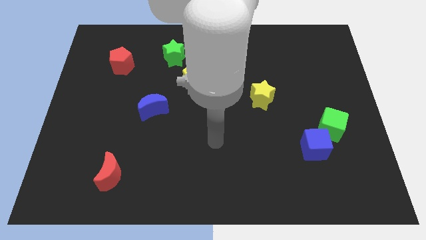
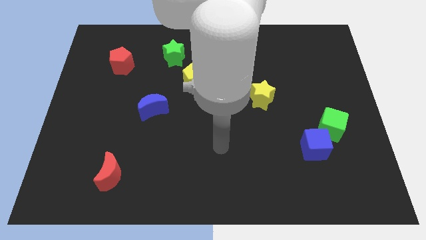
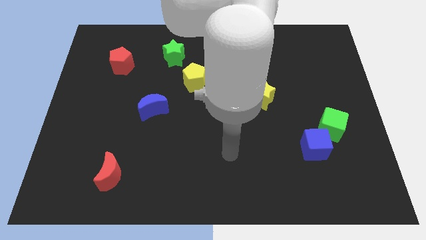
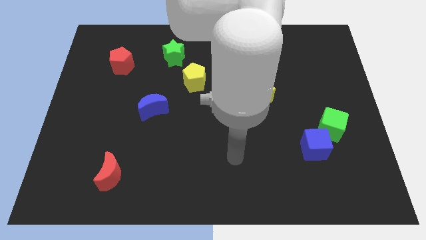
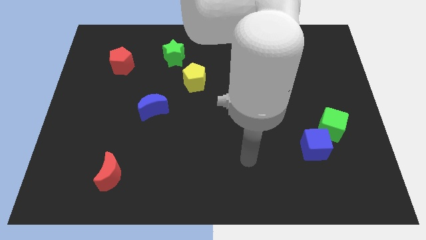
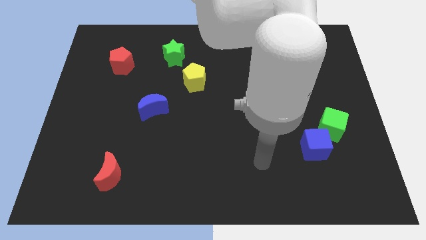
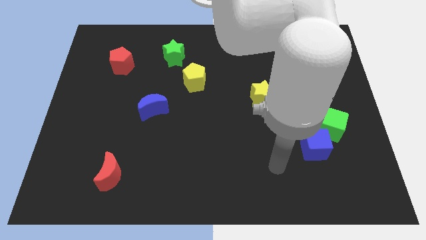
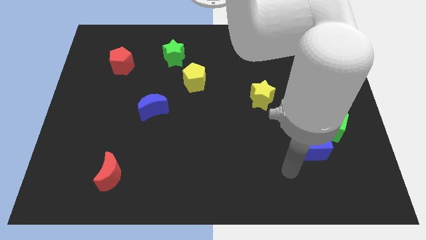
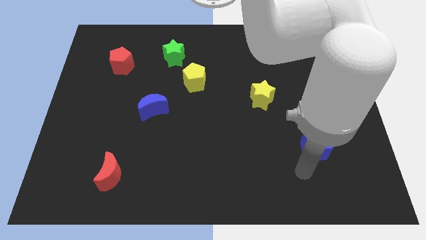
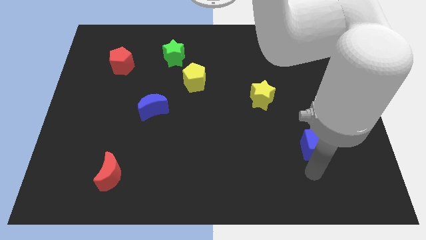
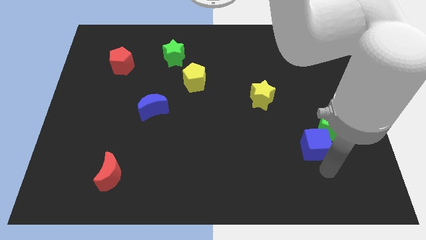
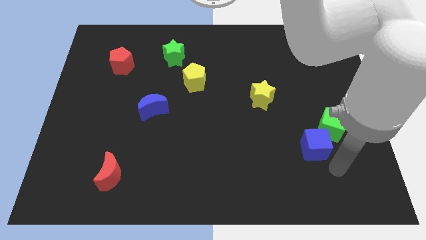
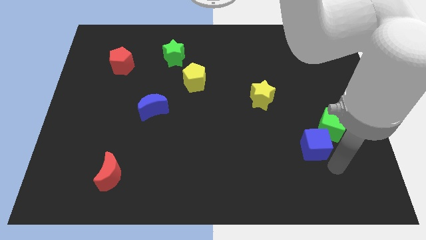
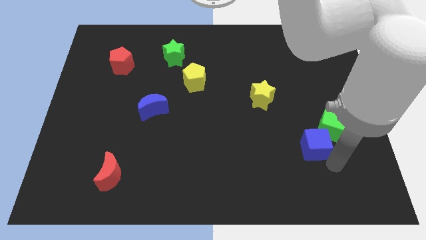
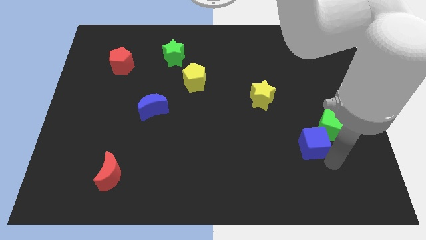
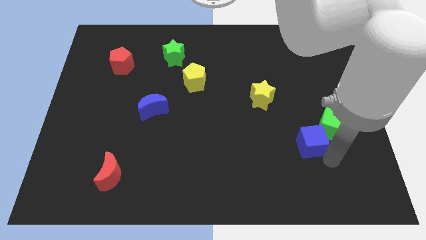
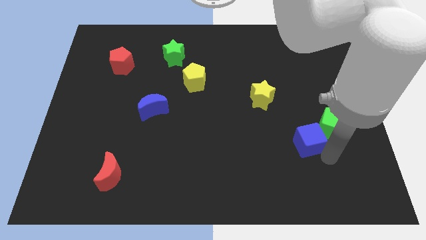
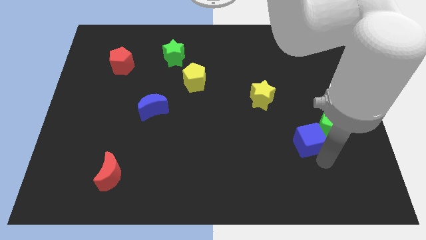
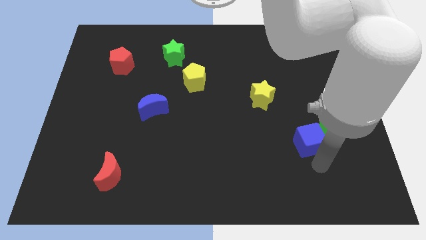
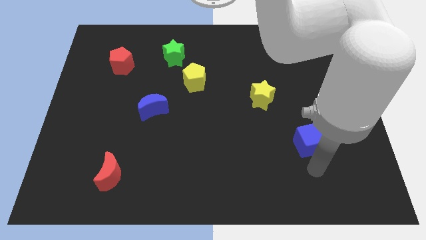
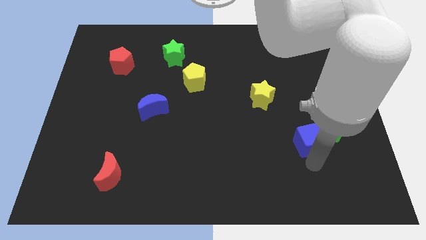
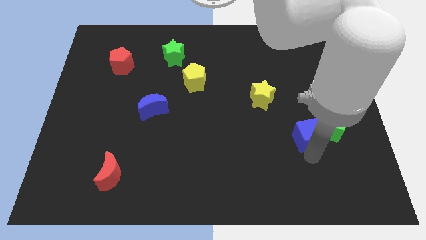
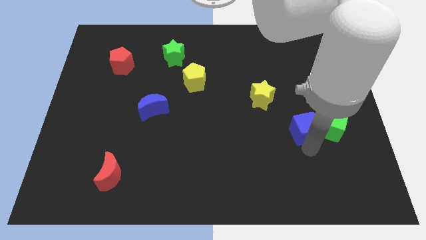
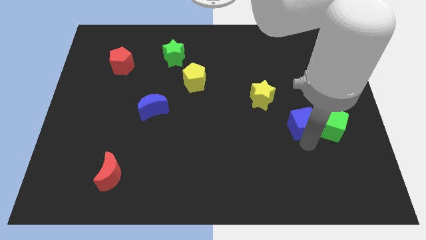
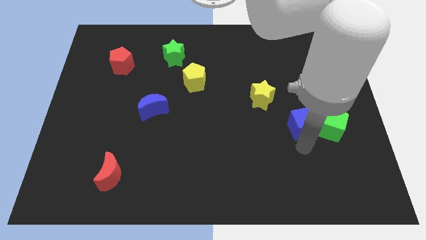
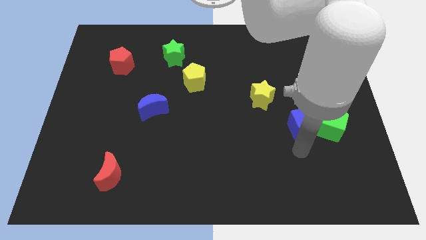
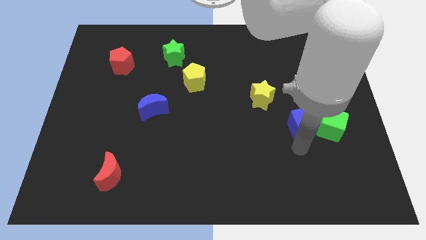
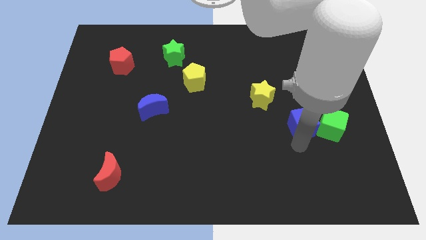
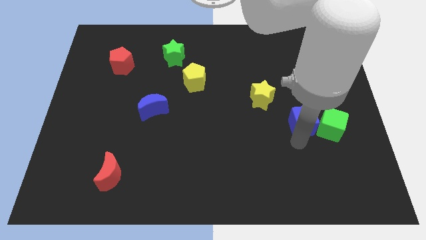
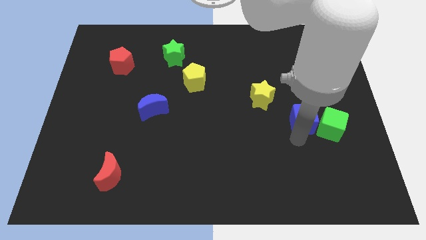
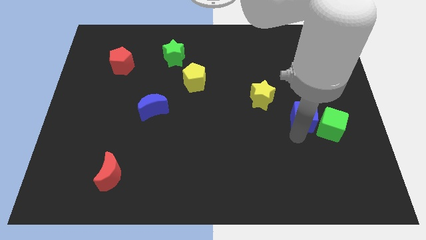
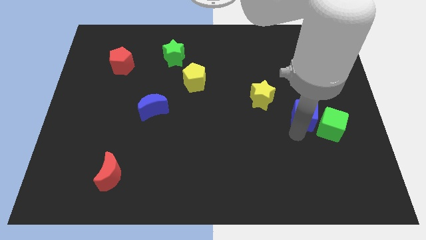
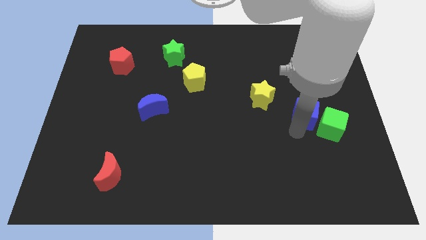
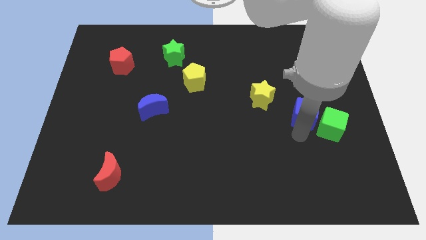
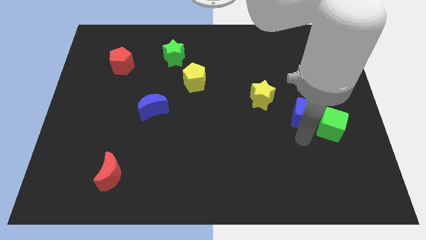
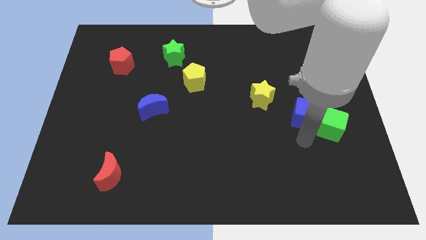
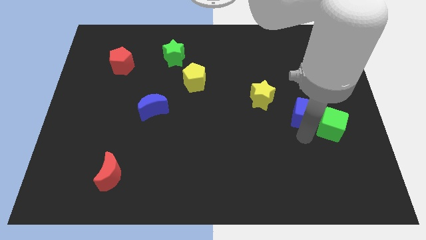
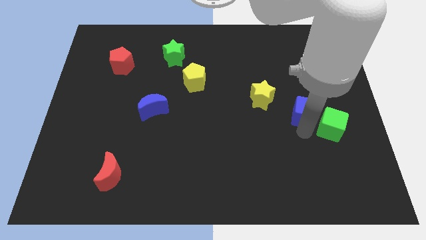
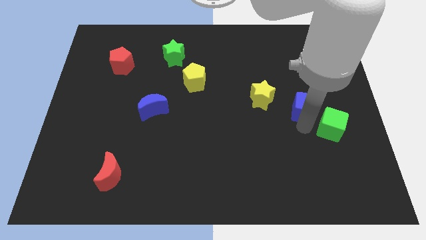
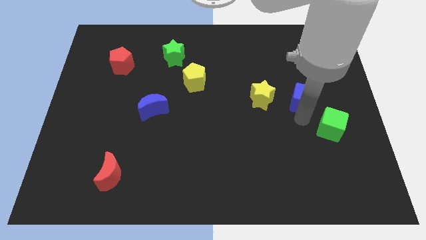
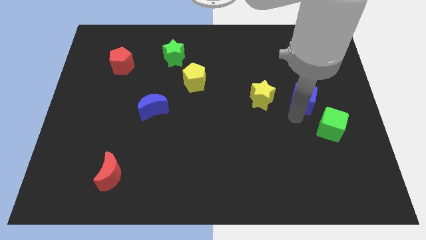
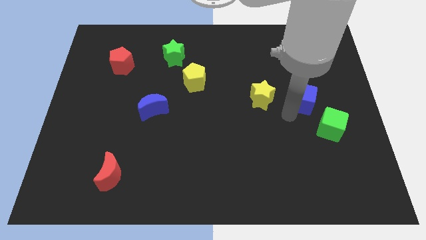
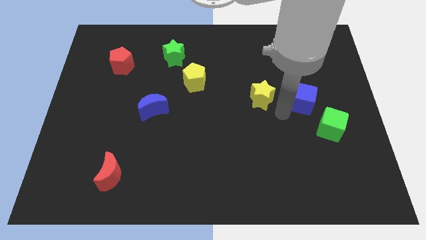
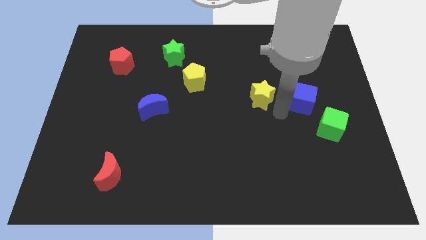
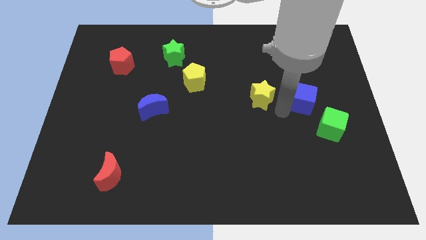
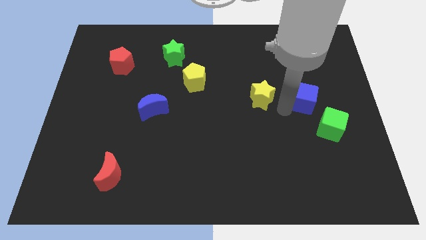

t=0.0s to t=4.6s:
move the blue cube to the top of the green cube

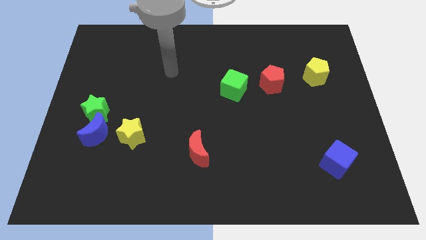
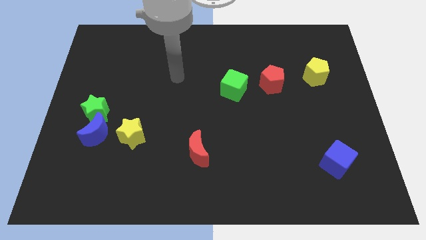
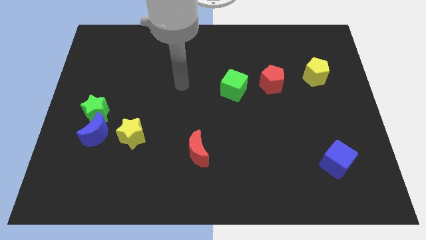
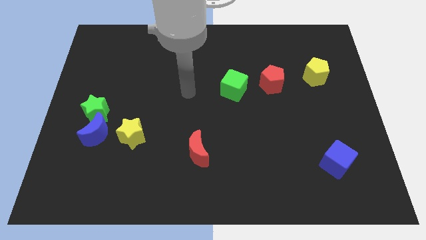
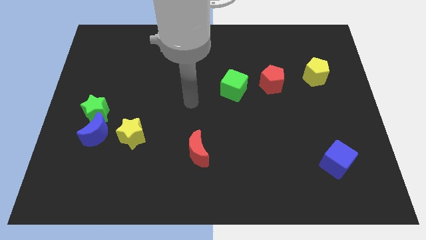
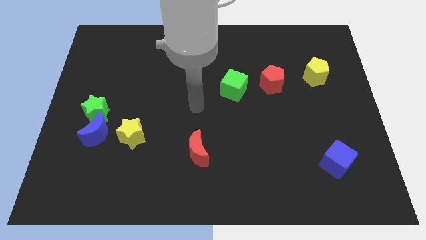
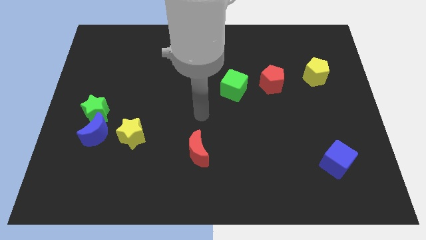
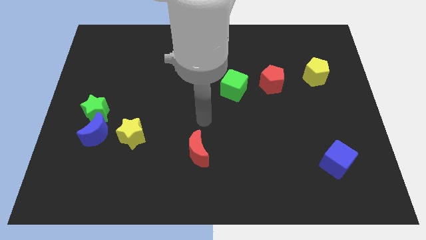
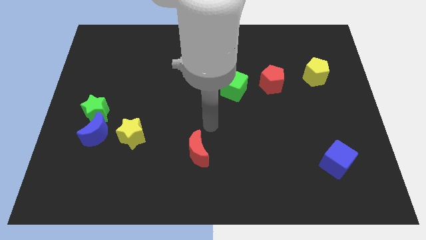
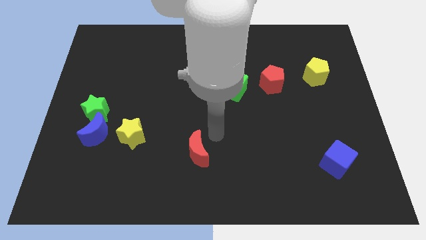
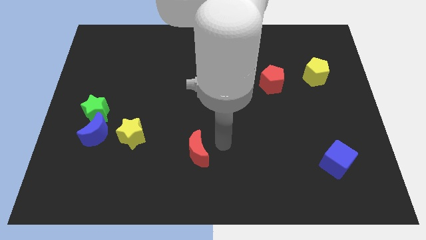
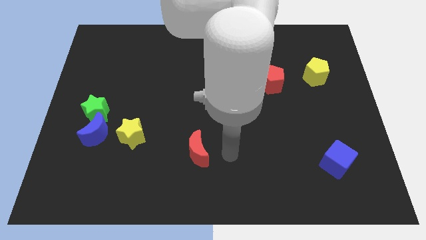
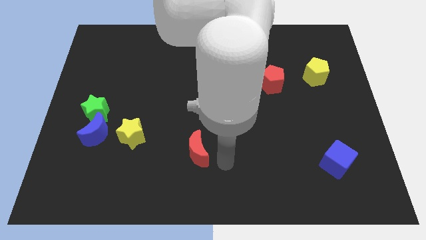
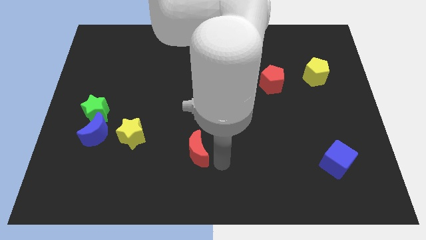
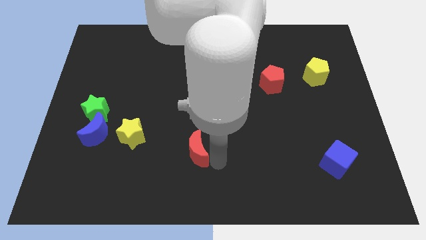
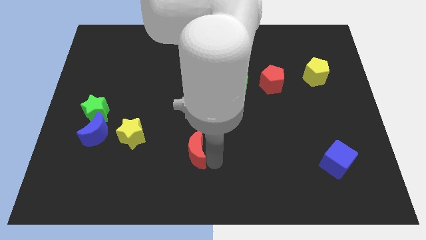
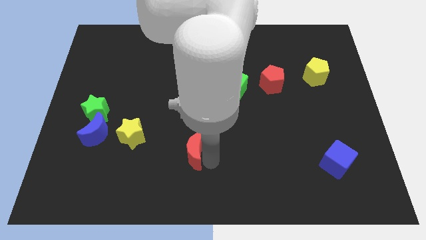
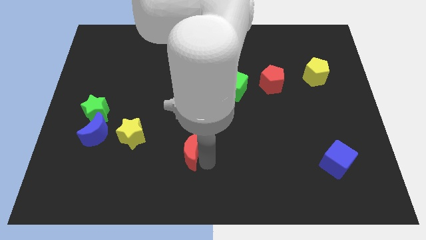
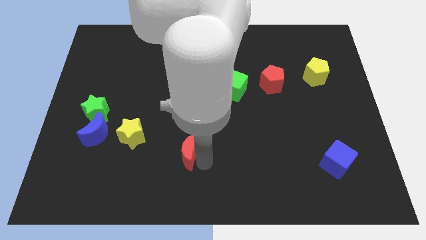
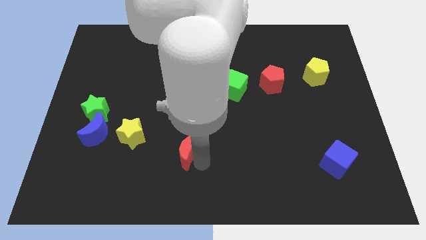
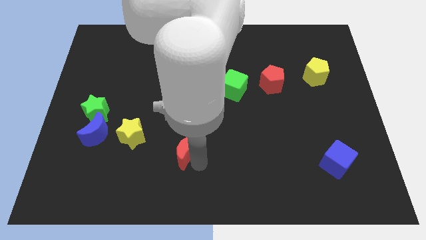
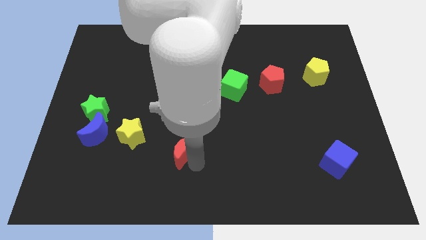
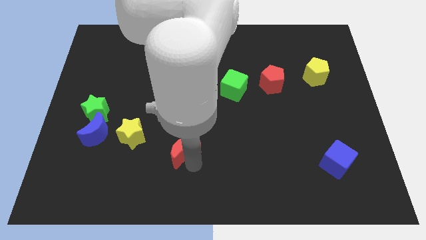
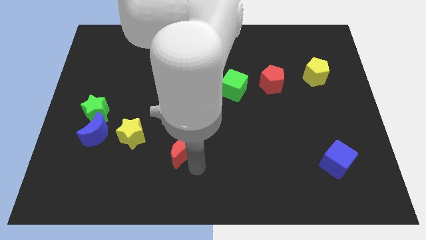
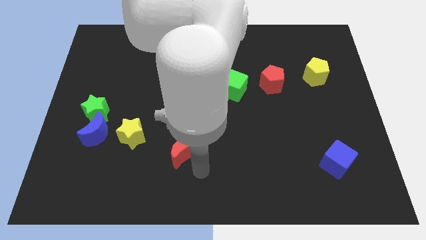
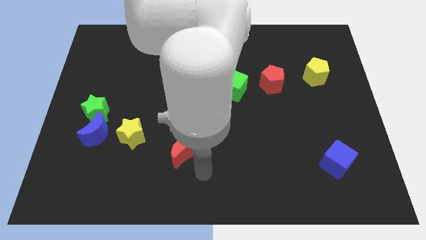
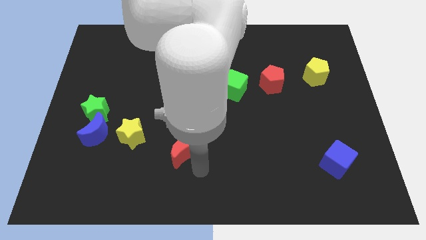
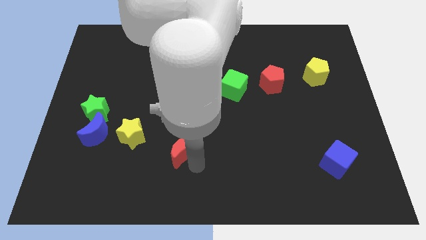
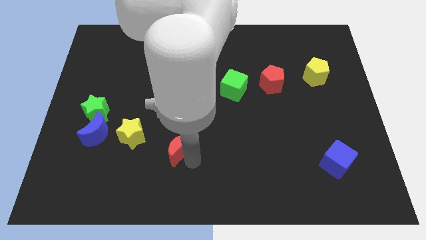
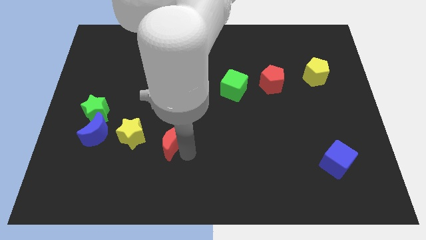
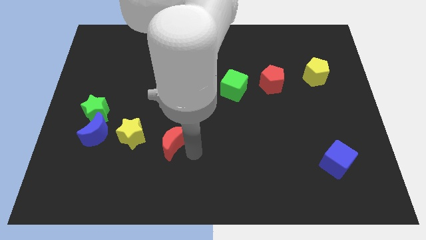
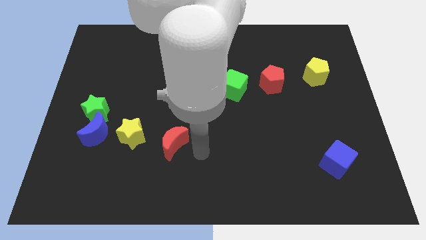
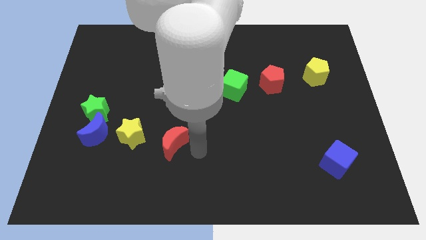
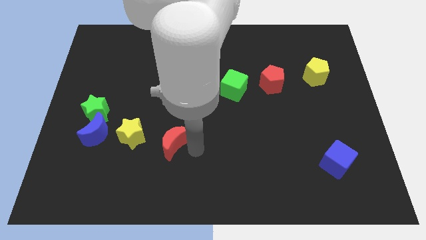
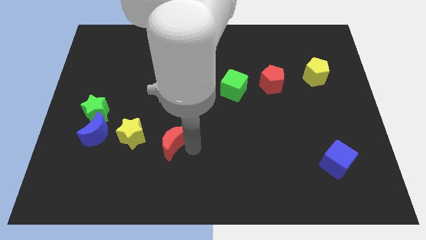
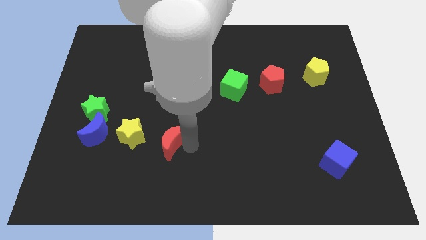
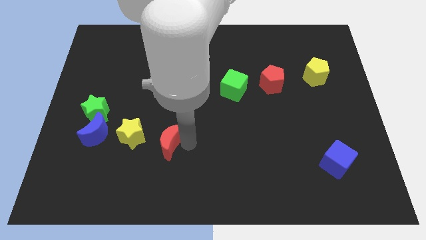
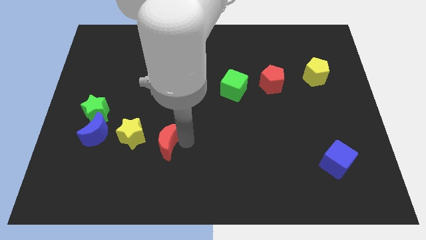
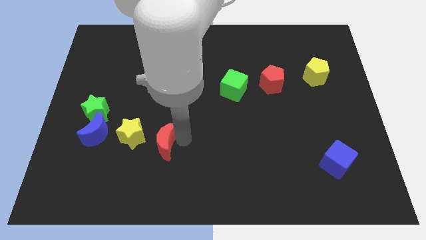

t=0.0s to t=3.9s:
move the red moon just right of the blue moon

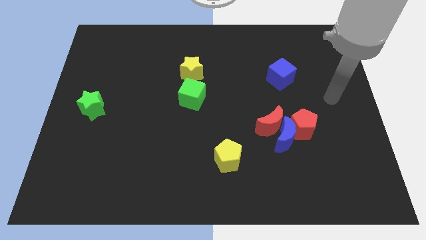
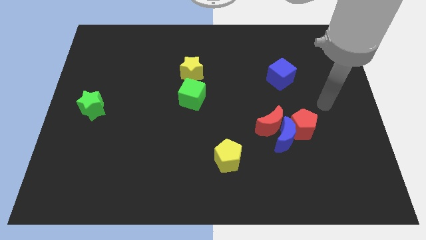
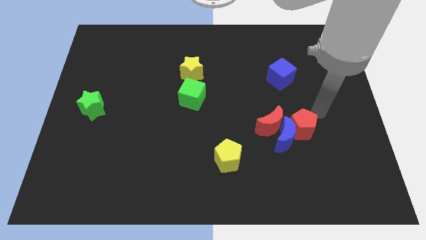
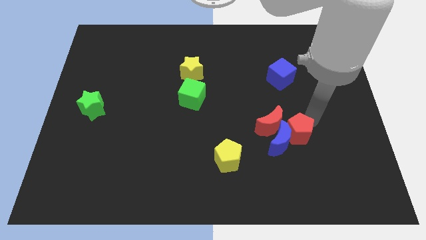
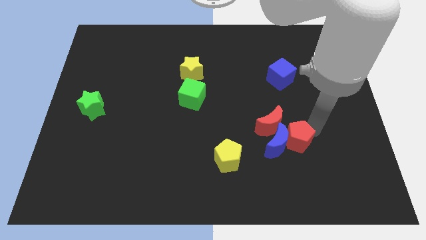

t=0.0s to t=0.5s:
put the blue moon diagonally up and to the left of the red pentagon
